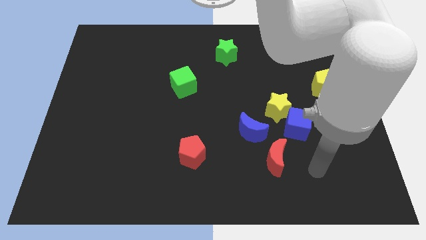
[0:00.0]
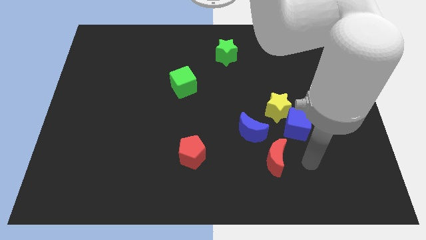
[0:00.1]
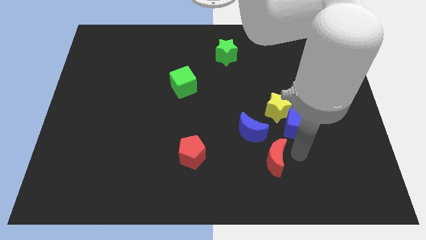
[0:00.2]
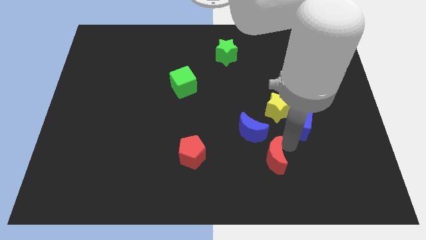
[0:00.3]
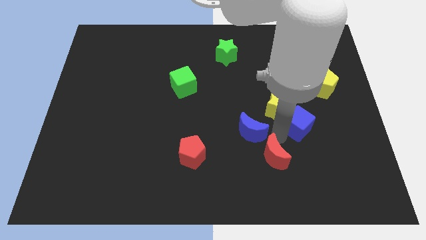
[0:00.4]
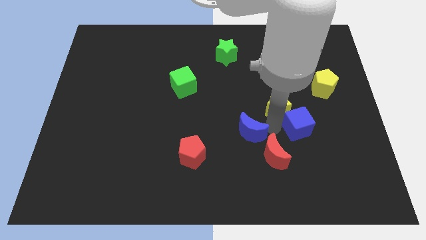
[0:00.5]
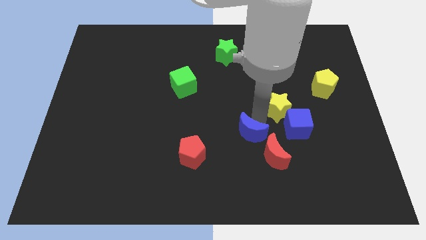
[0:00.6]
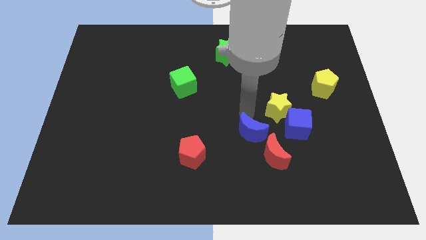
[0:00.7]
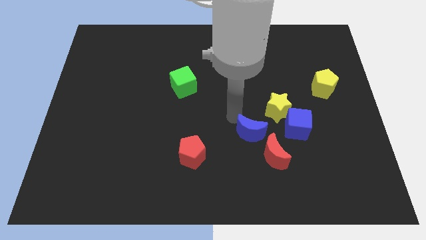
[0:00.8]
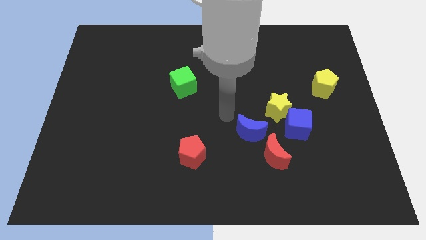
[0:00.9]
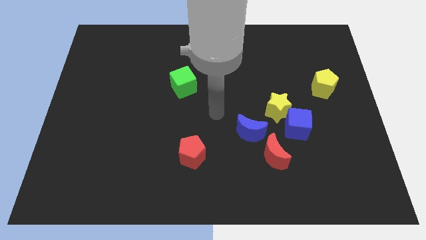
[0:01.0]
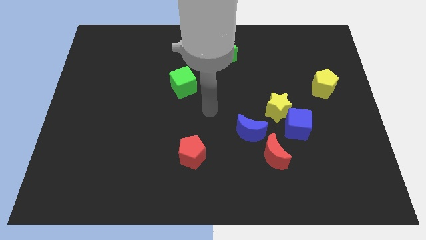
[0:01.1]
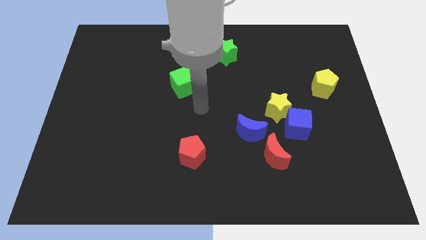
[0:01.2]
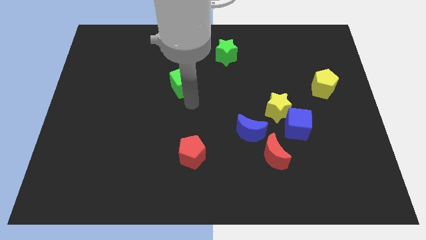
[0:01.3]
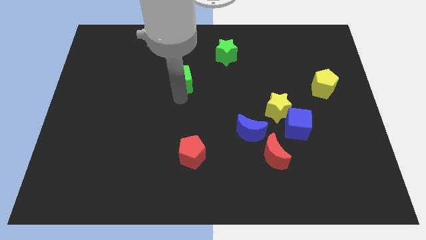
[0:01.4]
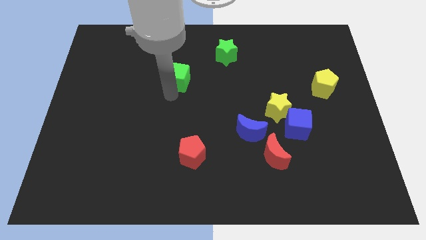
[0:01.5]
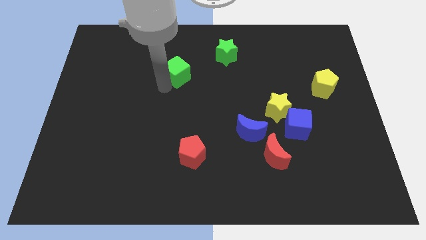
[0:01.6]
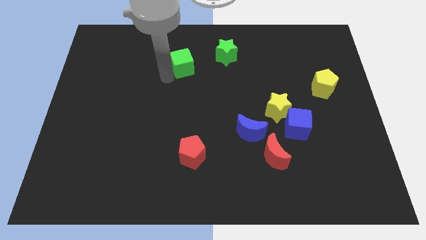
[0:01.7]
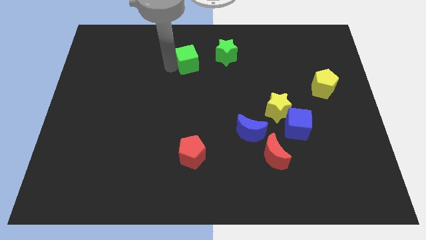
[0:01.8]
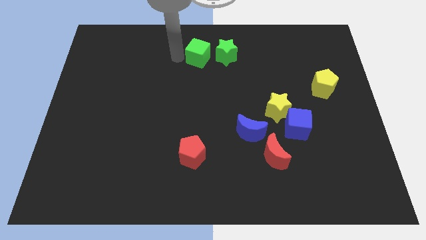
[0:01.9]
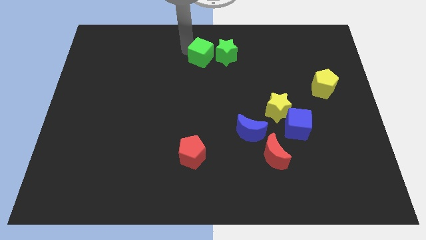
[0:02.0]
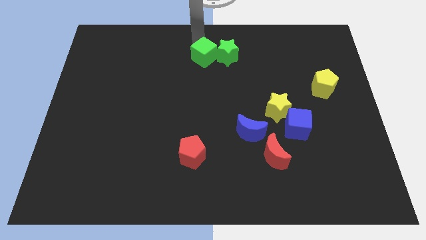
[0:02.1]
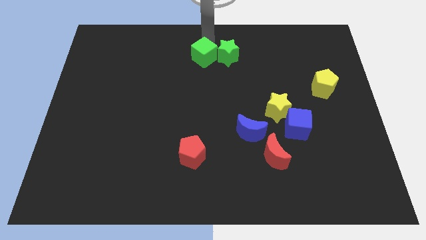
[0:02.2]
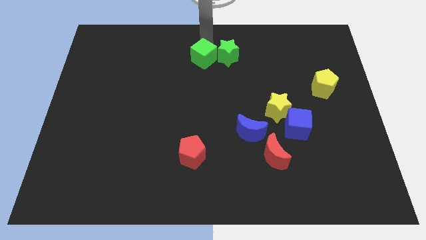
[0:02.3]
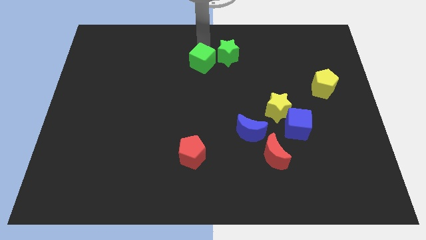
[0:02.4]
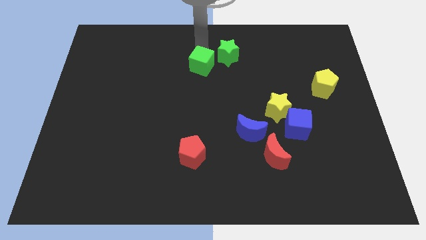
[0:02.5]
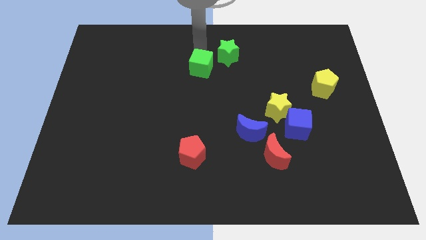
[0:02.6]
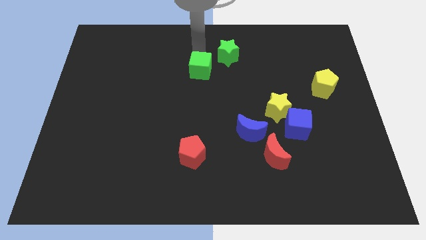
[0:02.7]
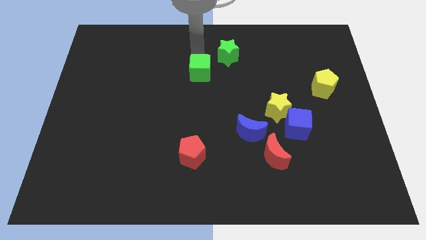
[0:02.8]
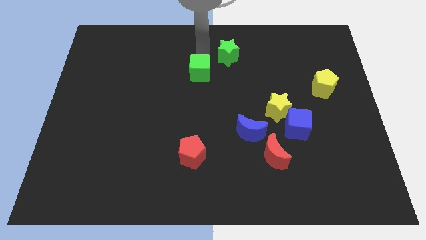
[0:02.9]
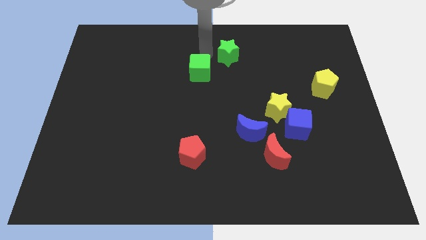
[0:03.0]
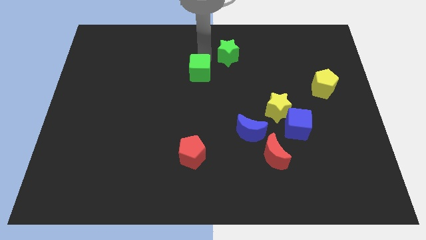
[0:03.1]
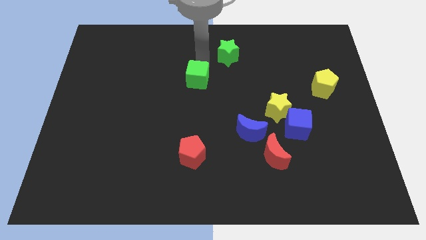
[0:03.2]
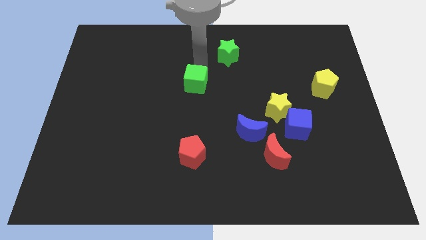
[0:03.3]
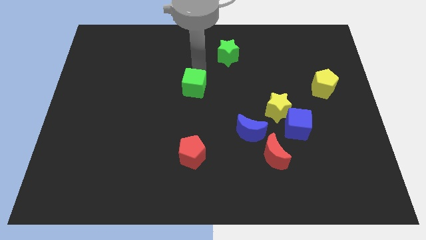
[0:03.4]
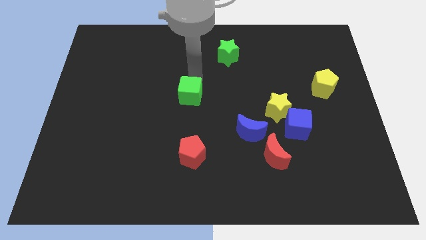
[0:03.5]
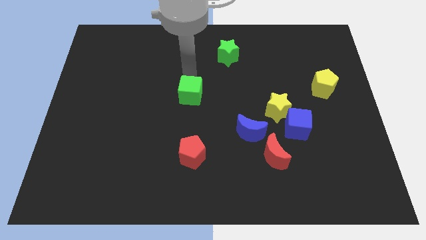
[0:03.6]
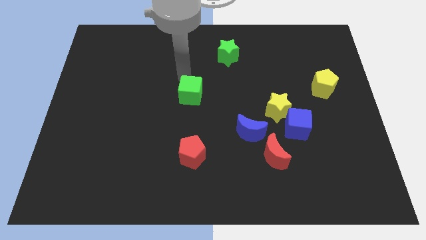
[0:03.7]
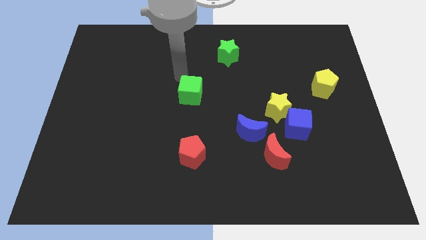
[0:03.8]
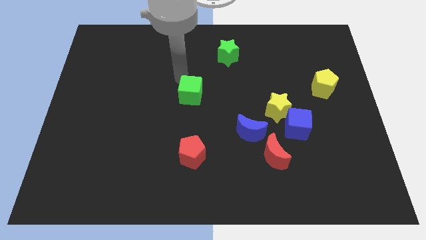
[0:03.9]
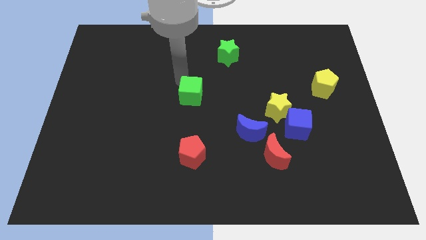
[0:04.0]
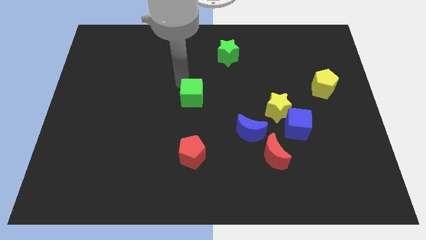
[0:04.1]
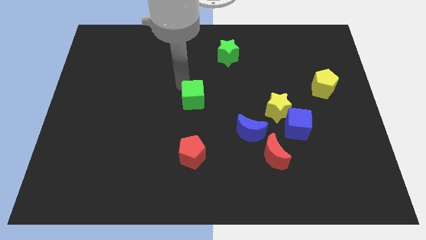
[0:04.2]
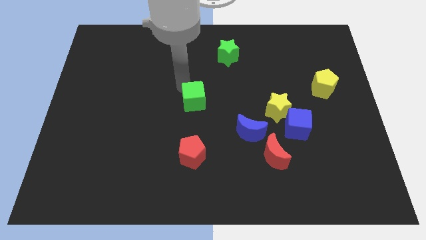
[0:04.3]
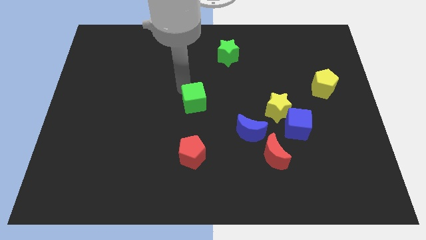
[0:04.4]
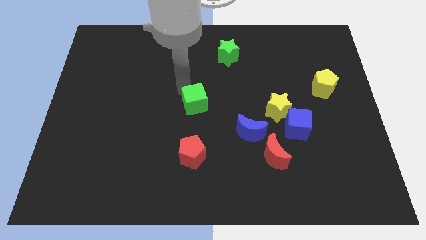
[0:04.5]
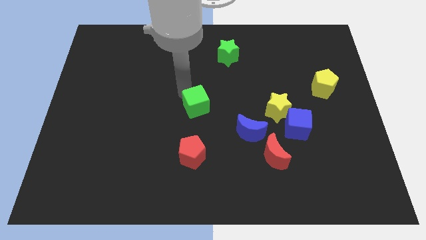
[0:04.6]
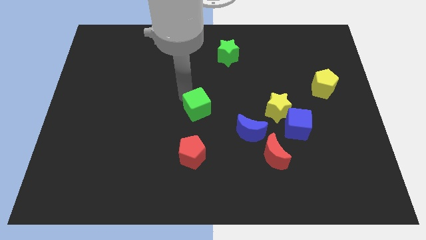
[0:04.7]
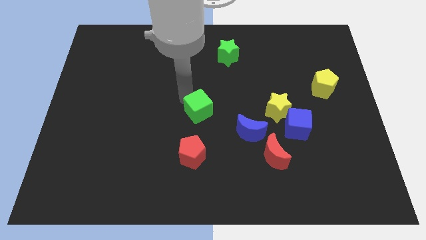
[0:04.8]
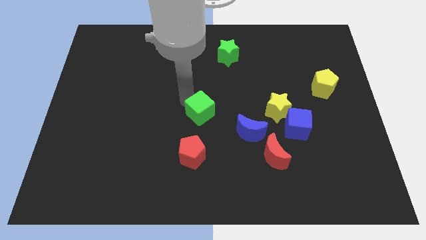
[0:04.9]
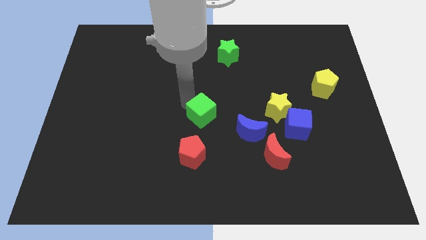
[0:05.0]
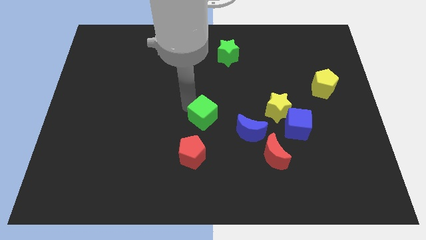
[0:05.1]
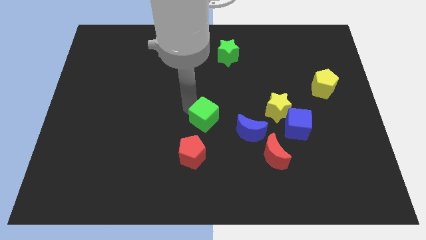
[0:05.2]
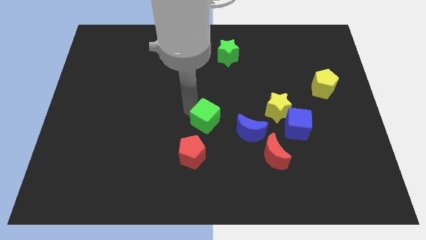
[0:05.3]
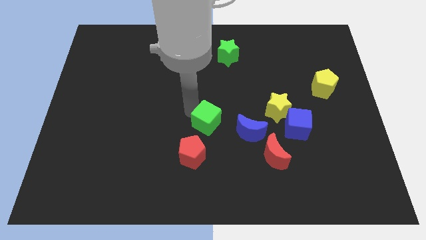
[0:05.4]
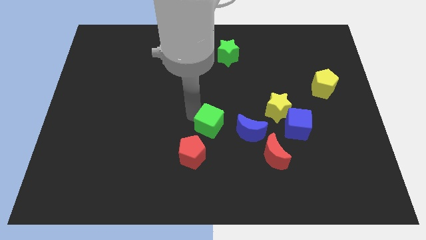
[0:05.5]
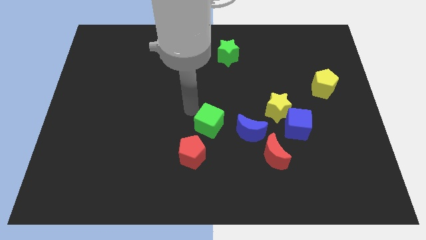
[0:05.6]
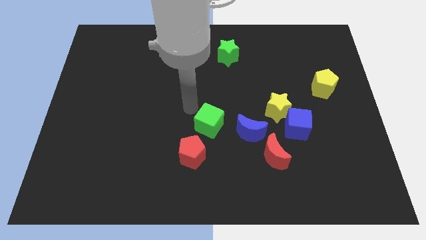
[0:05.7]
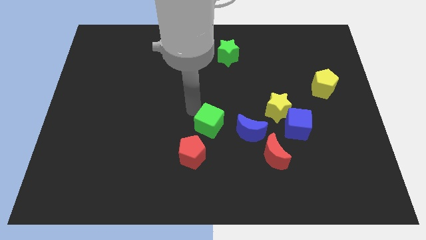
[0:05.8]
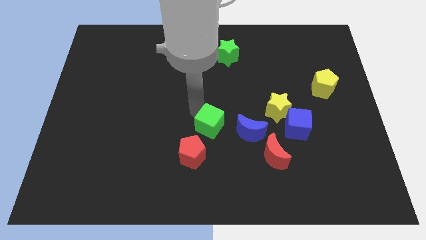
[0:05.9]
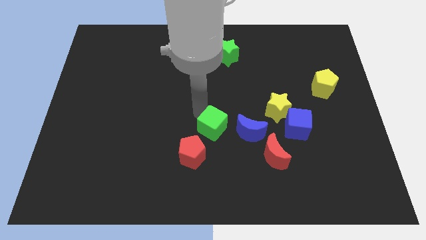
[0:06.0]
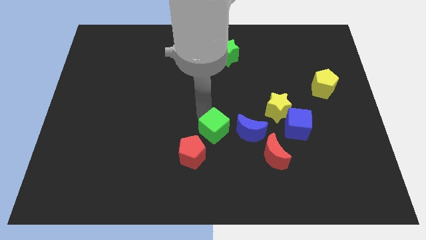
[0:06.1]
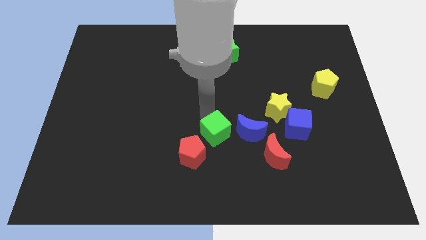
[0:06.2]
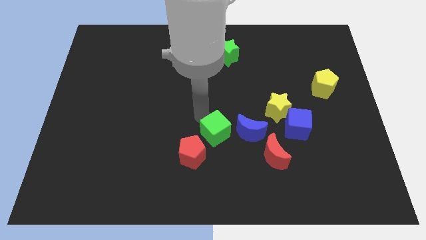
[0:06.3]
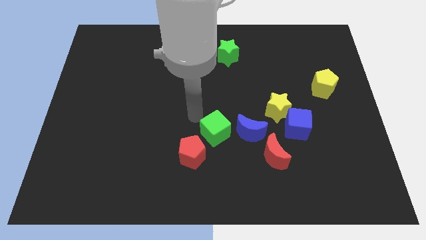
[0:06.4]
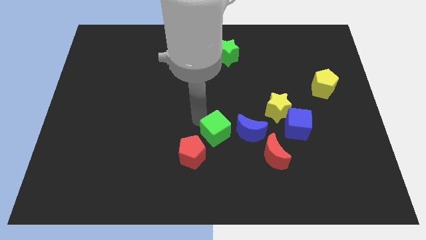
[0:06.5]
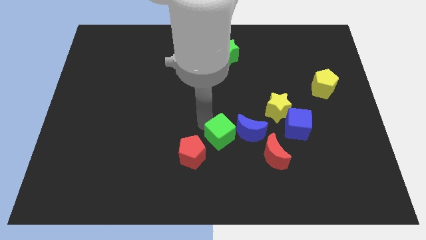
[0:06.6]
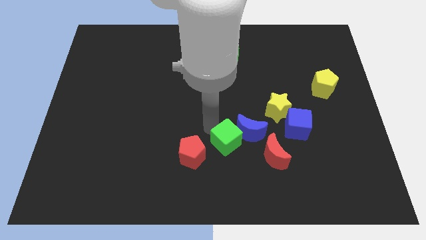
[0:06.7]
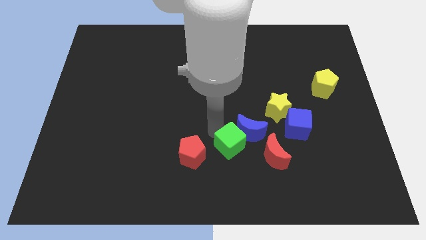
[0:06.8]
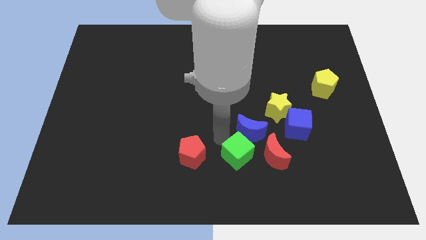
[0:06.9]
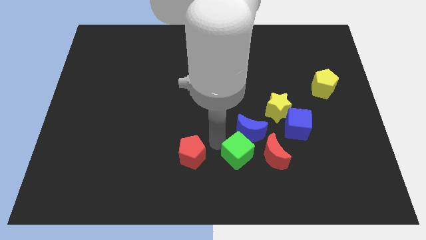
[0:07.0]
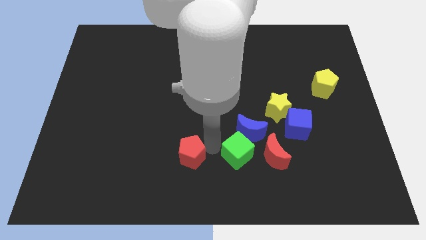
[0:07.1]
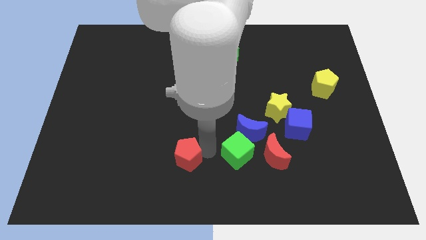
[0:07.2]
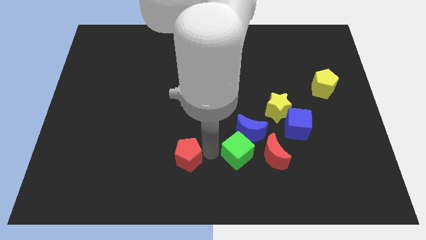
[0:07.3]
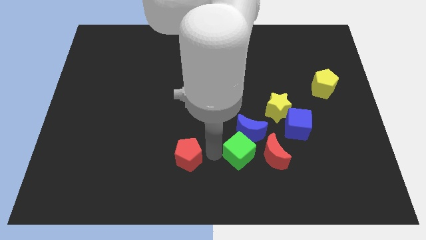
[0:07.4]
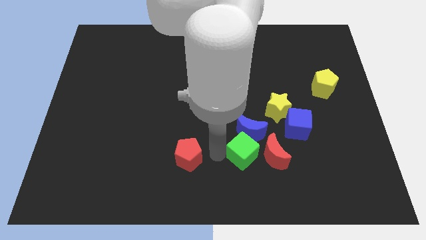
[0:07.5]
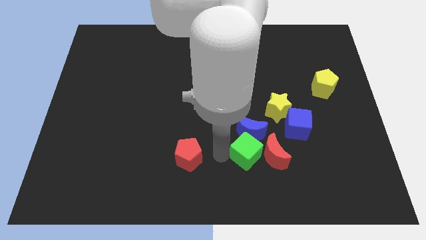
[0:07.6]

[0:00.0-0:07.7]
slide the green cube to the red moon
